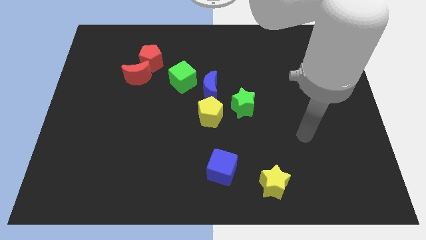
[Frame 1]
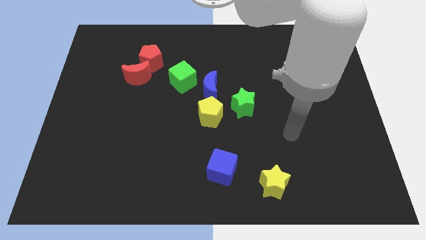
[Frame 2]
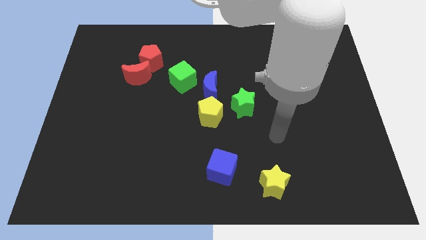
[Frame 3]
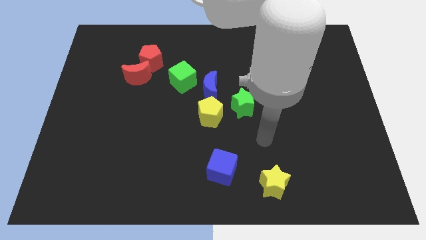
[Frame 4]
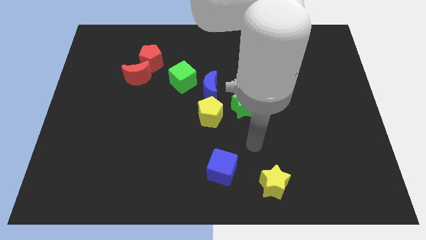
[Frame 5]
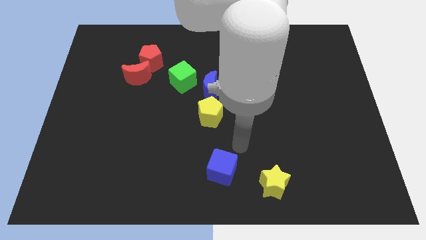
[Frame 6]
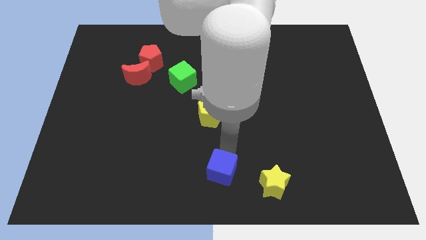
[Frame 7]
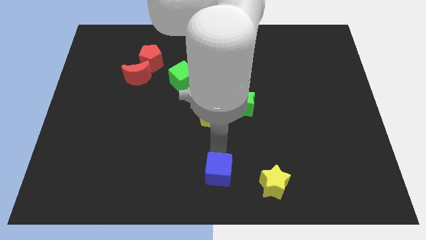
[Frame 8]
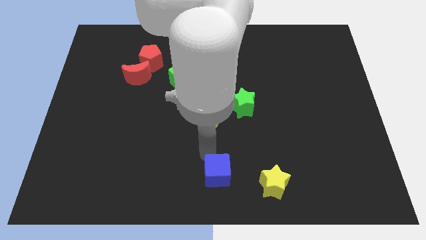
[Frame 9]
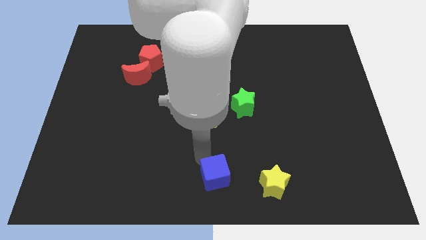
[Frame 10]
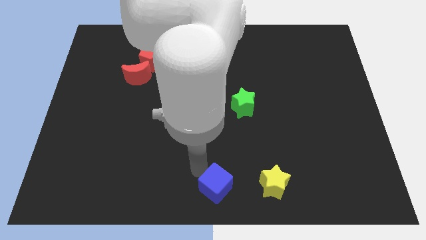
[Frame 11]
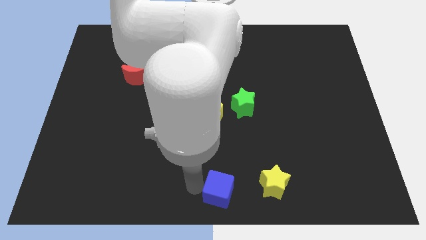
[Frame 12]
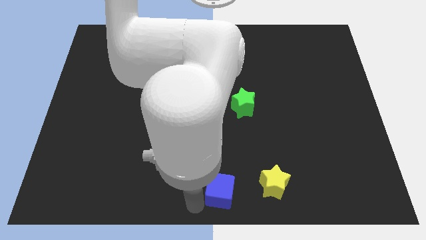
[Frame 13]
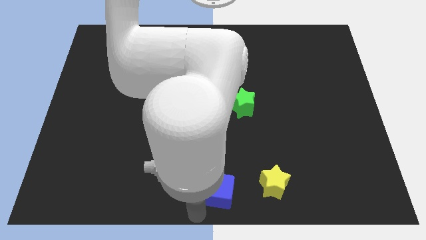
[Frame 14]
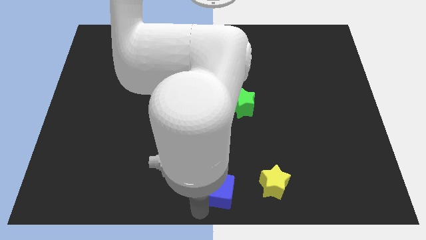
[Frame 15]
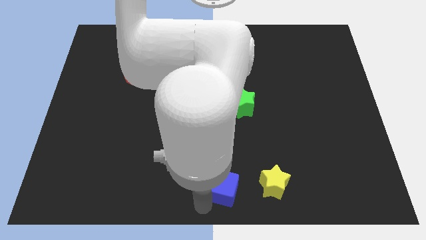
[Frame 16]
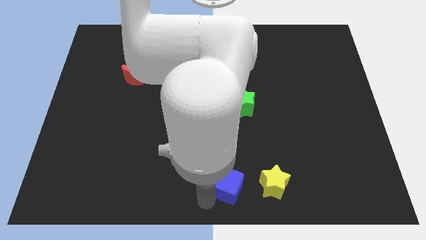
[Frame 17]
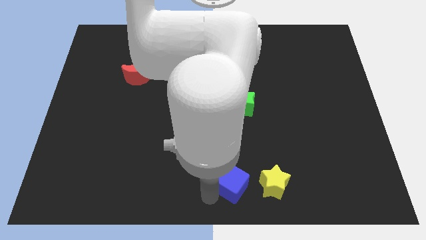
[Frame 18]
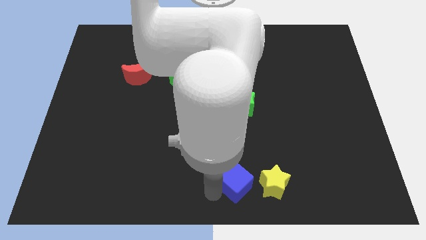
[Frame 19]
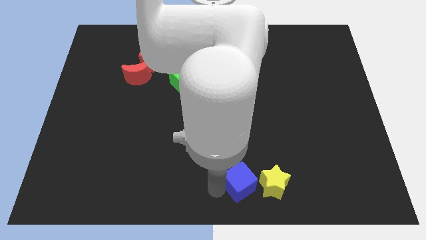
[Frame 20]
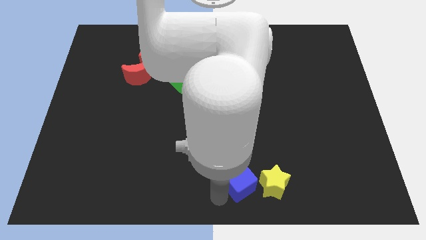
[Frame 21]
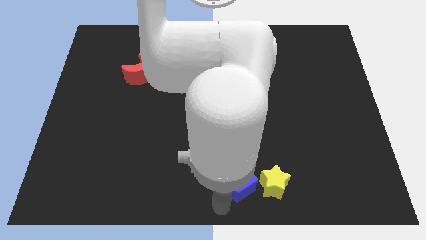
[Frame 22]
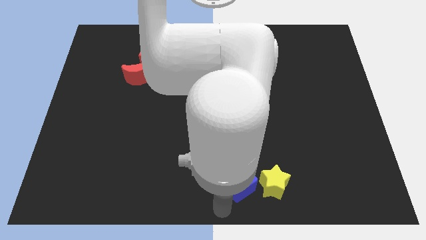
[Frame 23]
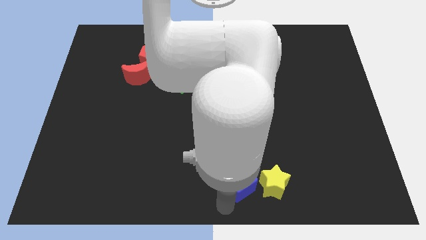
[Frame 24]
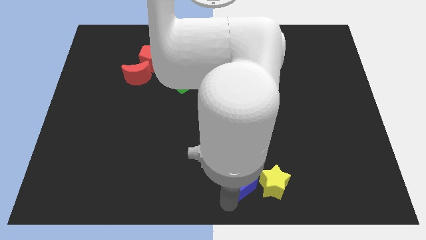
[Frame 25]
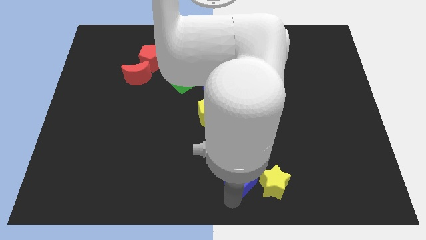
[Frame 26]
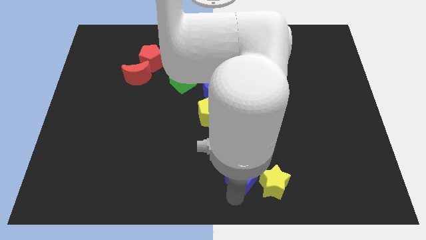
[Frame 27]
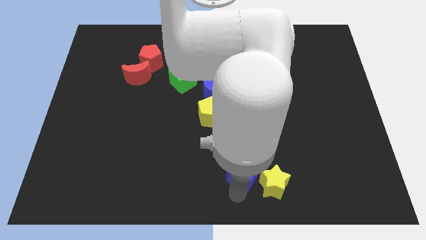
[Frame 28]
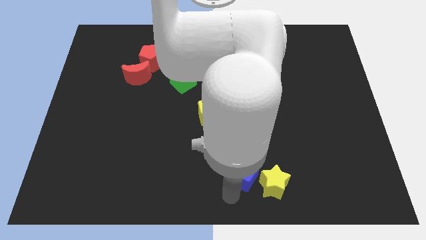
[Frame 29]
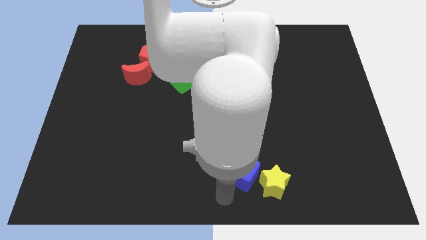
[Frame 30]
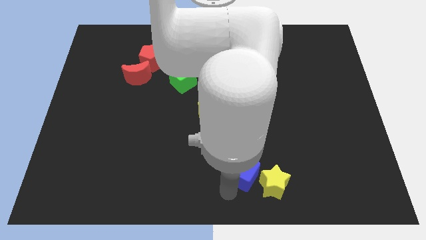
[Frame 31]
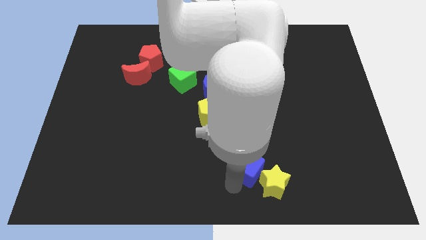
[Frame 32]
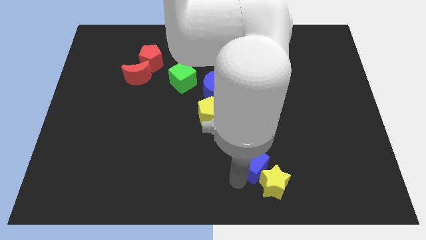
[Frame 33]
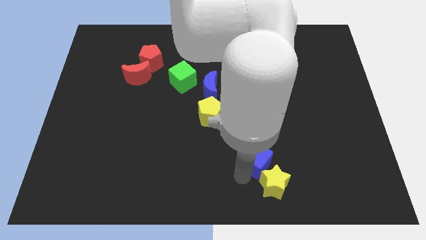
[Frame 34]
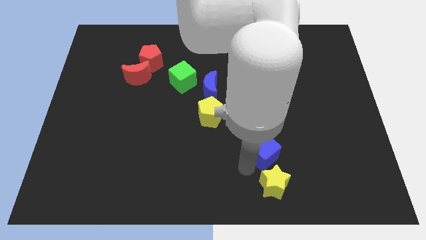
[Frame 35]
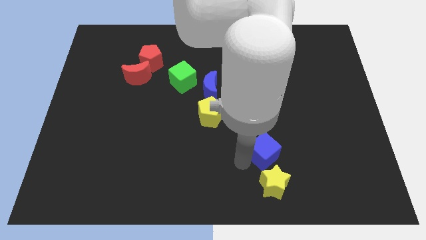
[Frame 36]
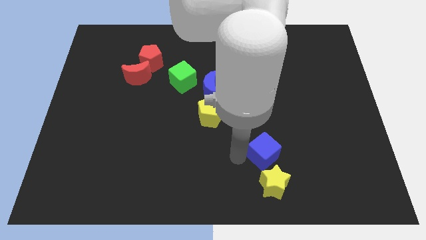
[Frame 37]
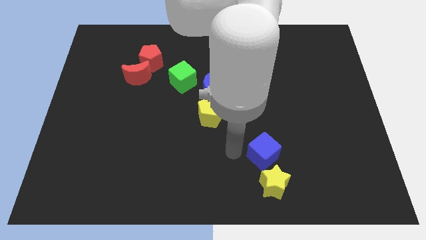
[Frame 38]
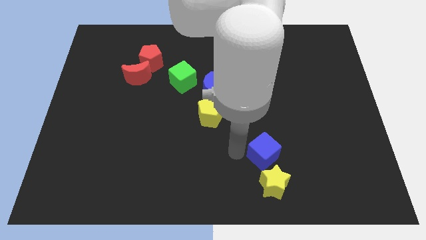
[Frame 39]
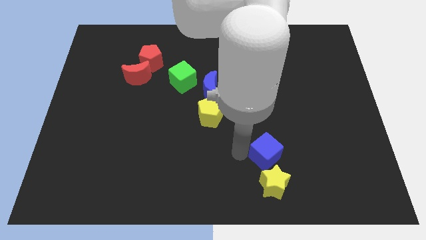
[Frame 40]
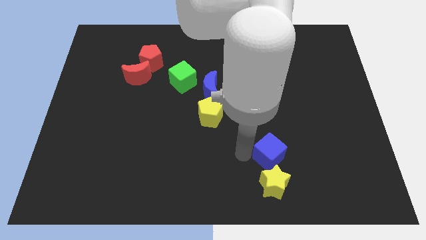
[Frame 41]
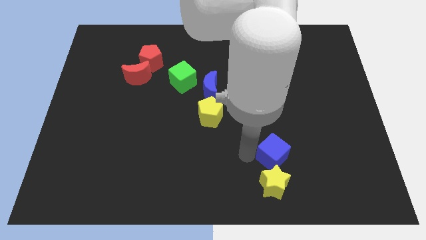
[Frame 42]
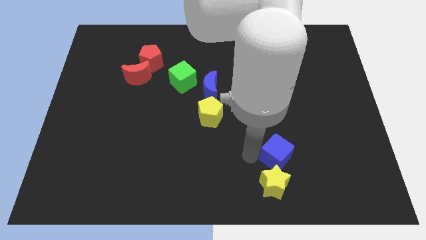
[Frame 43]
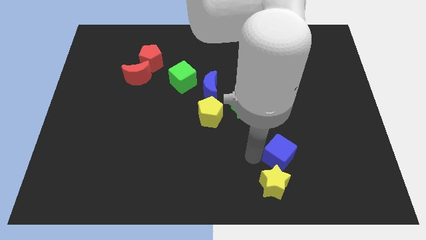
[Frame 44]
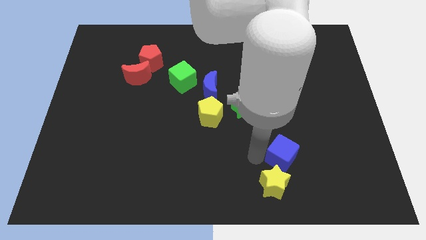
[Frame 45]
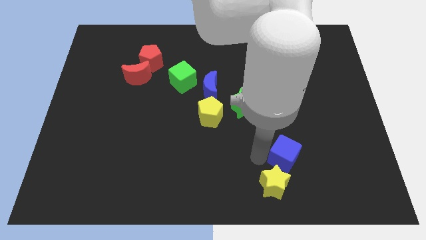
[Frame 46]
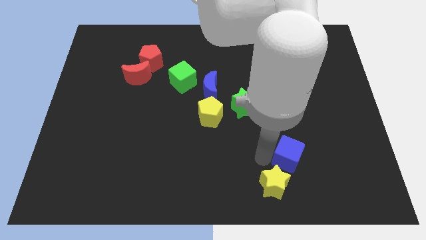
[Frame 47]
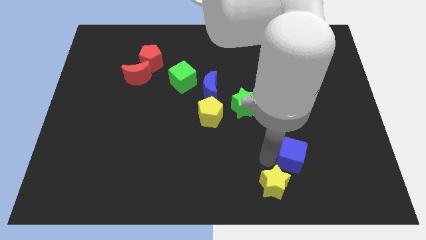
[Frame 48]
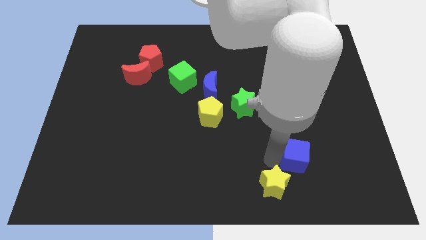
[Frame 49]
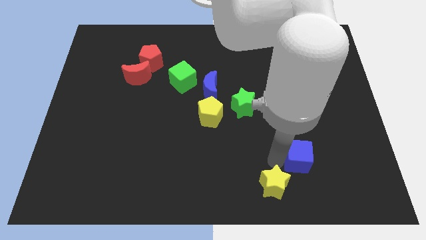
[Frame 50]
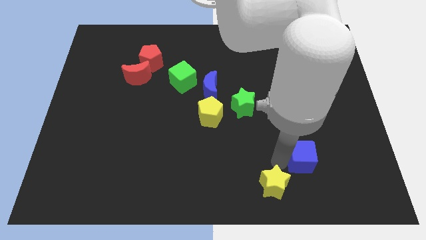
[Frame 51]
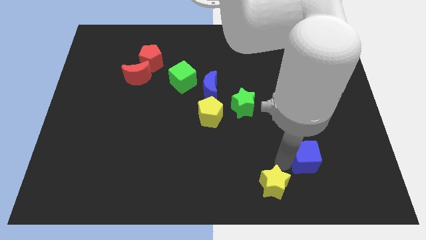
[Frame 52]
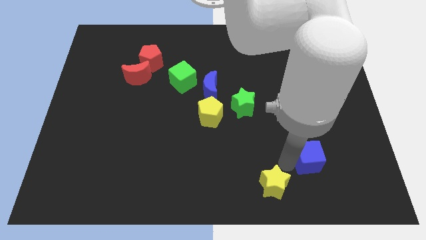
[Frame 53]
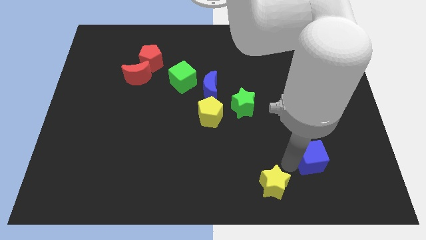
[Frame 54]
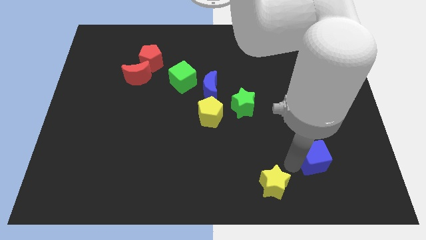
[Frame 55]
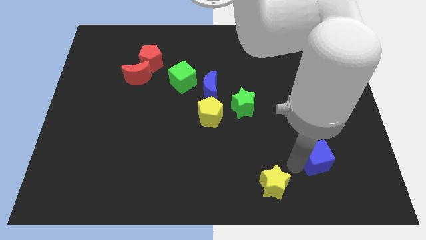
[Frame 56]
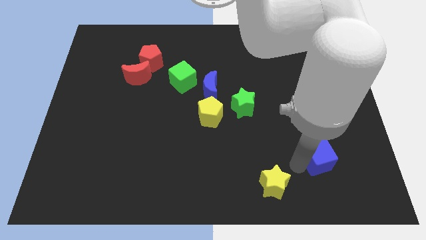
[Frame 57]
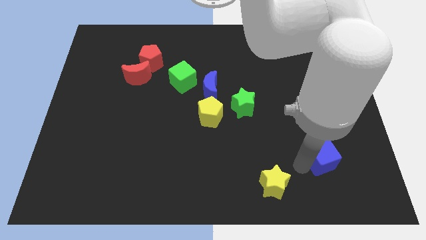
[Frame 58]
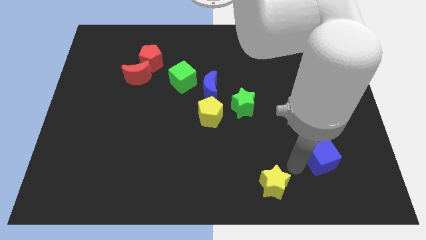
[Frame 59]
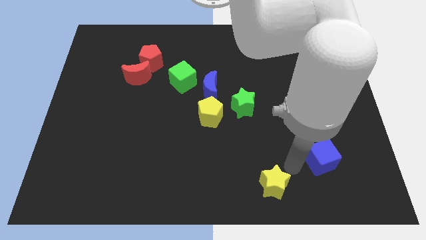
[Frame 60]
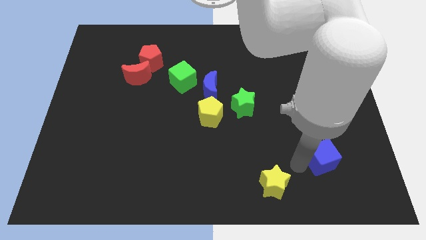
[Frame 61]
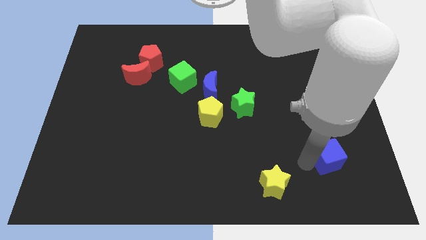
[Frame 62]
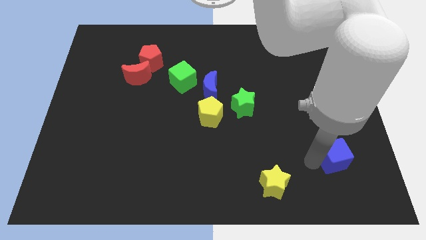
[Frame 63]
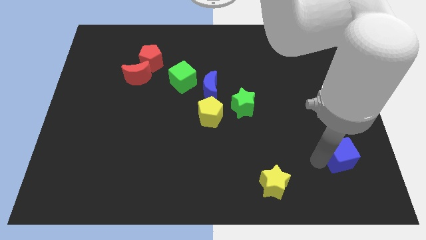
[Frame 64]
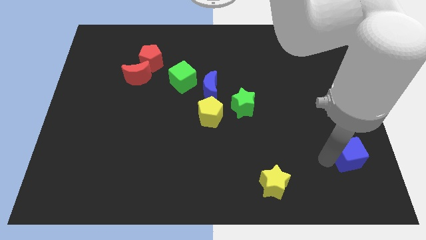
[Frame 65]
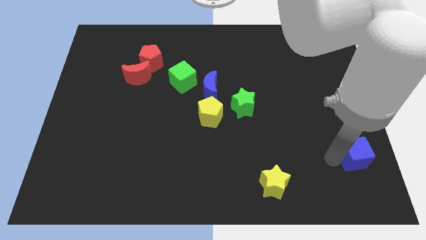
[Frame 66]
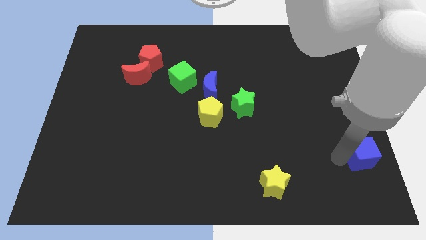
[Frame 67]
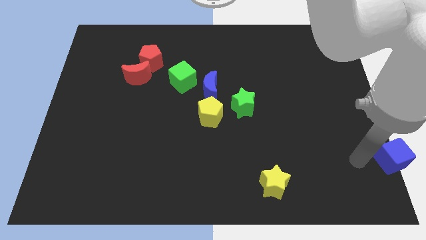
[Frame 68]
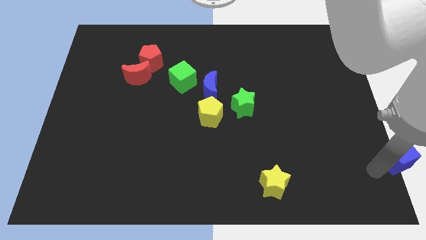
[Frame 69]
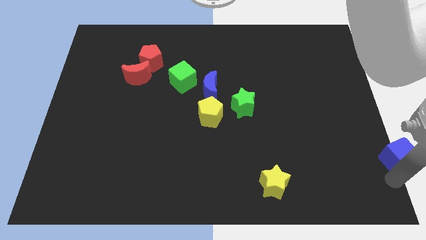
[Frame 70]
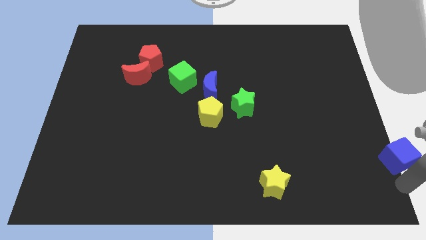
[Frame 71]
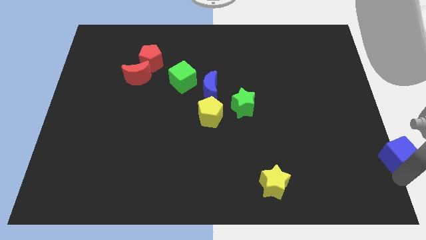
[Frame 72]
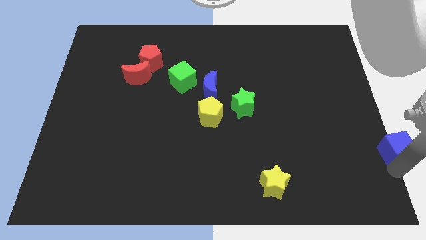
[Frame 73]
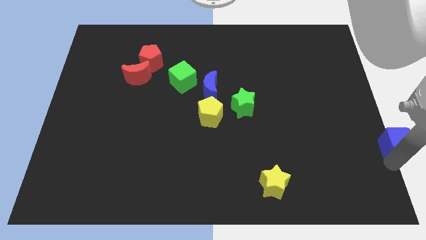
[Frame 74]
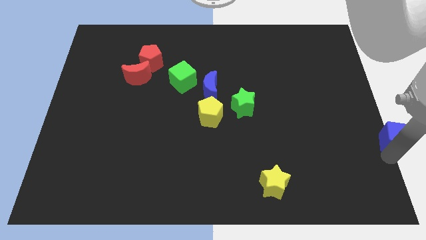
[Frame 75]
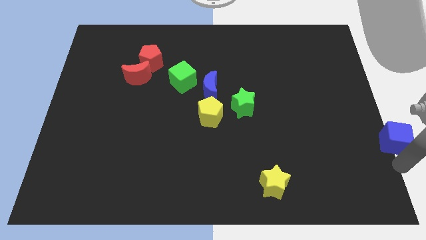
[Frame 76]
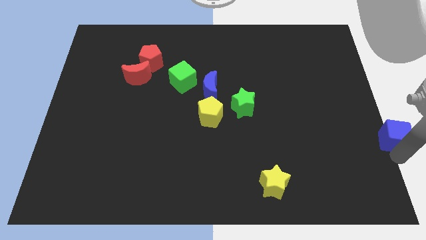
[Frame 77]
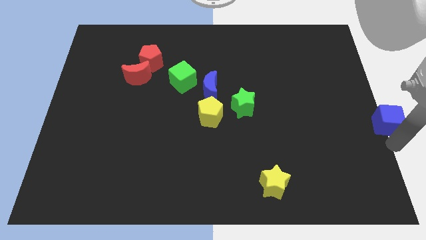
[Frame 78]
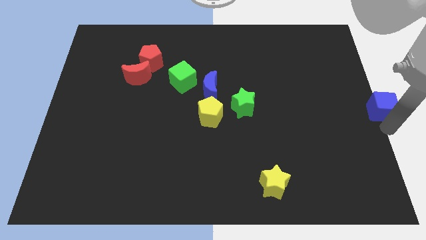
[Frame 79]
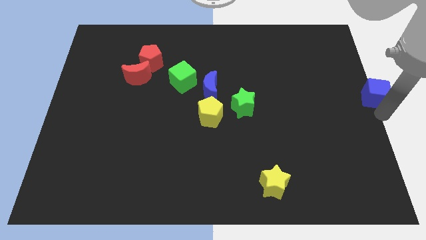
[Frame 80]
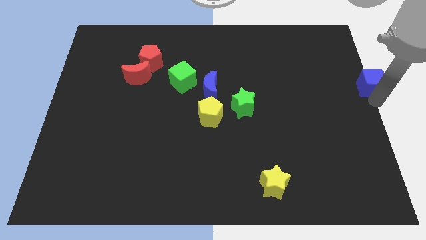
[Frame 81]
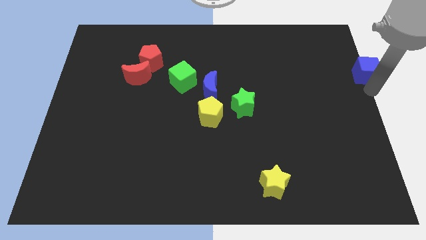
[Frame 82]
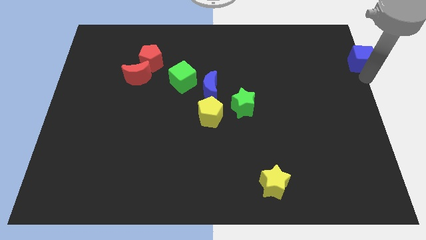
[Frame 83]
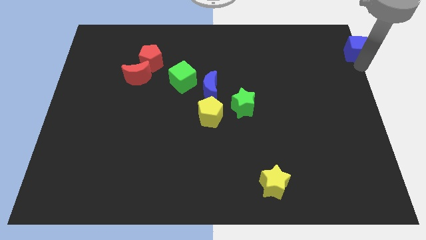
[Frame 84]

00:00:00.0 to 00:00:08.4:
slide the blue cube to the top right of the board

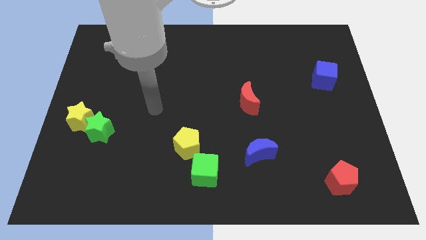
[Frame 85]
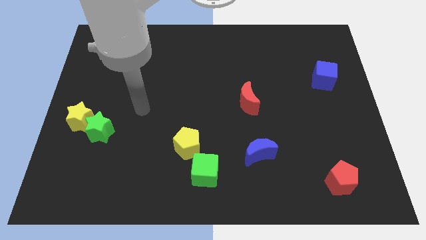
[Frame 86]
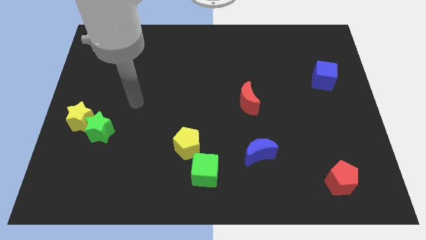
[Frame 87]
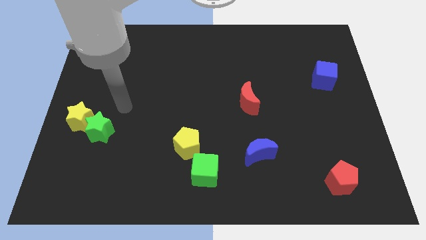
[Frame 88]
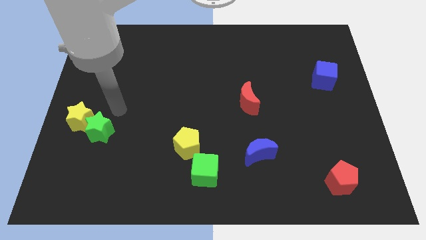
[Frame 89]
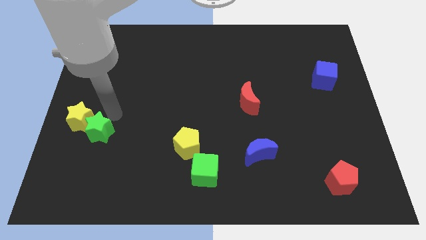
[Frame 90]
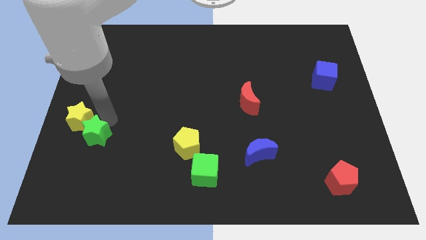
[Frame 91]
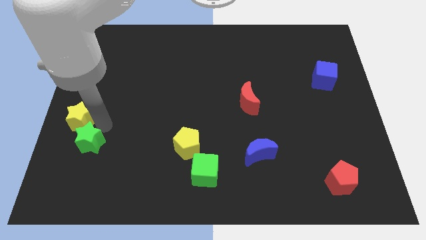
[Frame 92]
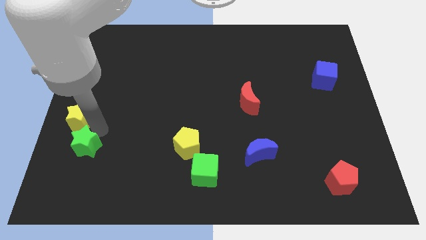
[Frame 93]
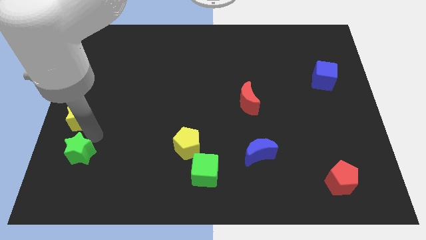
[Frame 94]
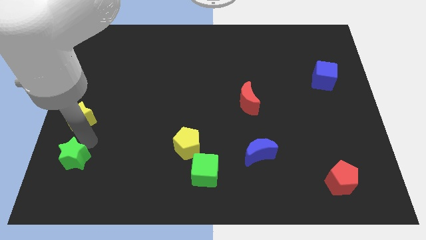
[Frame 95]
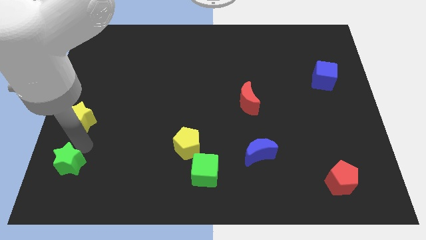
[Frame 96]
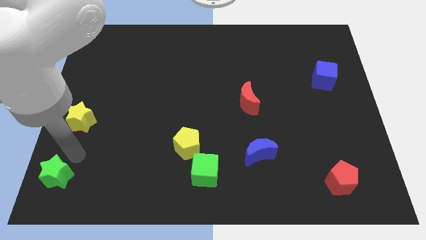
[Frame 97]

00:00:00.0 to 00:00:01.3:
put the green star to the lower left corner
